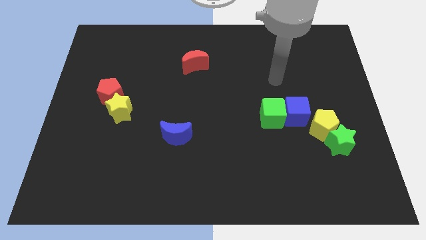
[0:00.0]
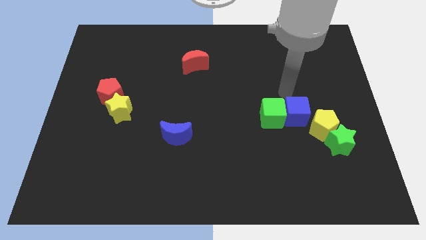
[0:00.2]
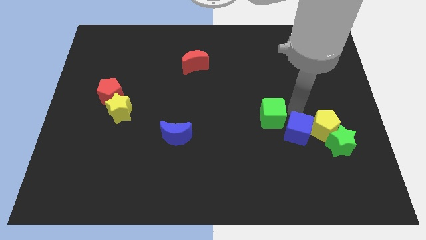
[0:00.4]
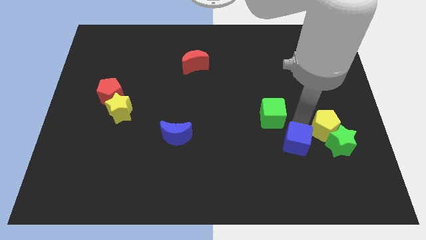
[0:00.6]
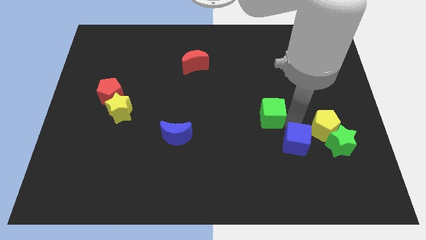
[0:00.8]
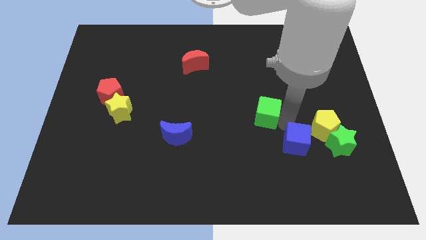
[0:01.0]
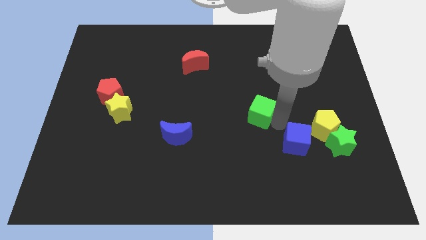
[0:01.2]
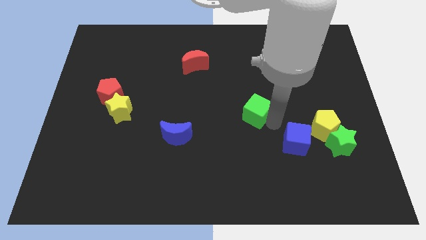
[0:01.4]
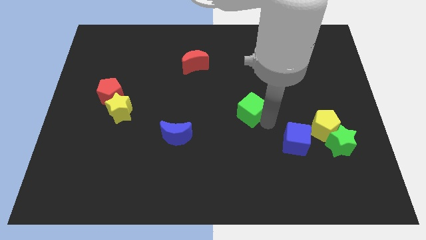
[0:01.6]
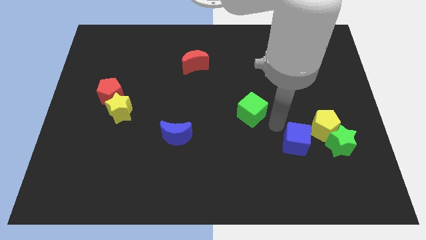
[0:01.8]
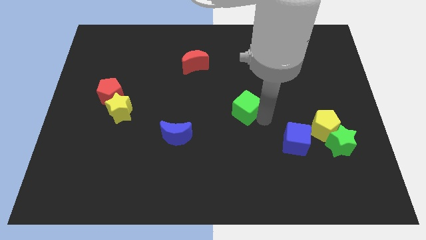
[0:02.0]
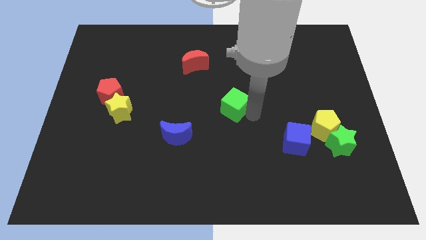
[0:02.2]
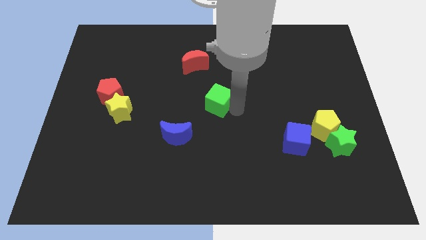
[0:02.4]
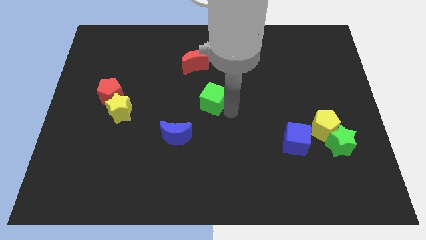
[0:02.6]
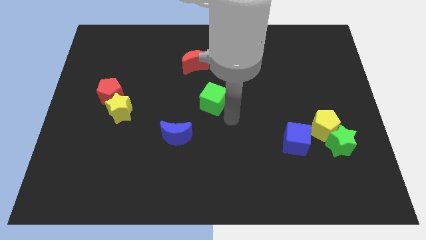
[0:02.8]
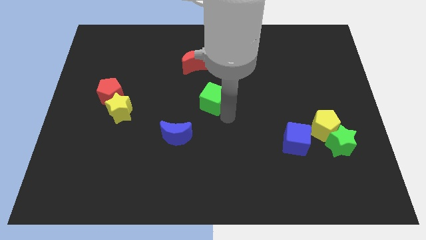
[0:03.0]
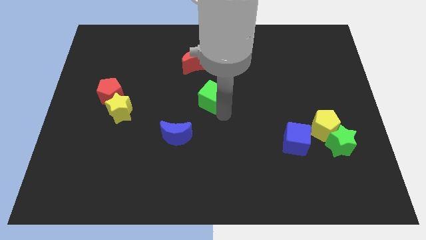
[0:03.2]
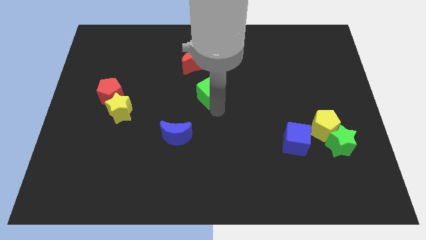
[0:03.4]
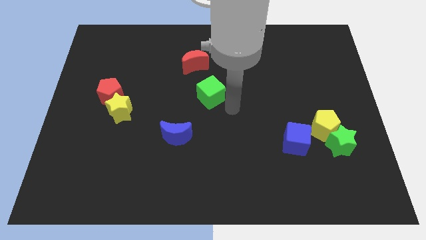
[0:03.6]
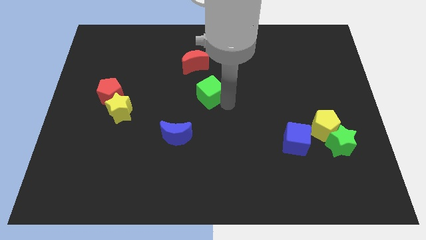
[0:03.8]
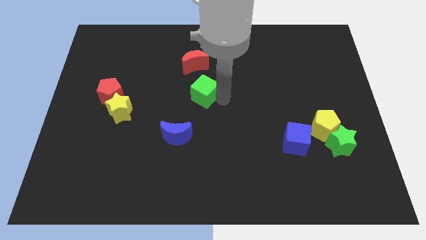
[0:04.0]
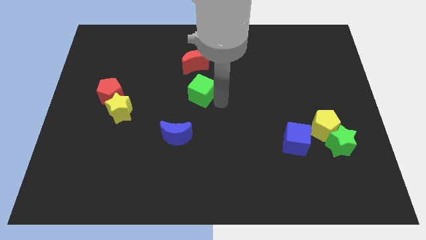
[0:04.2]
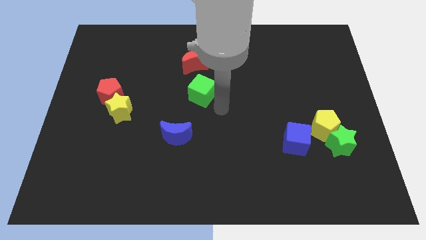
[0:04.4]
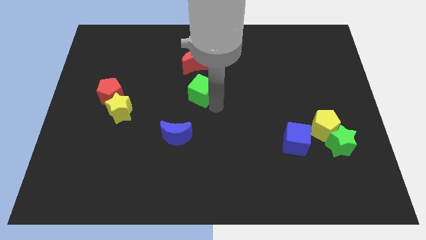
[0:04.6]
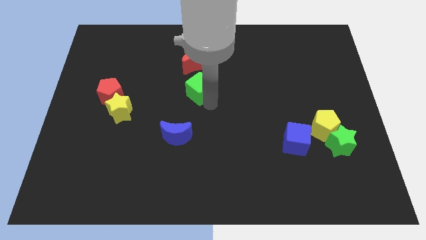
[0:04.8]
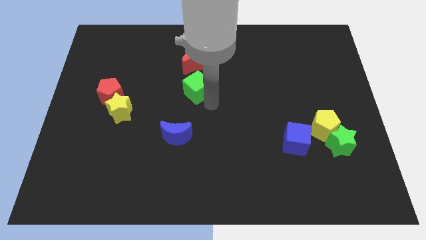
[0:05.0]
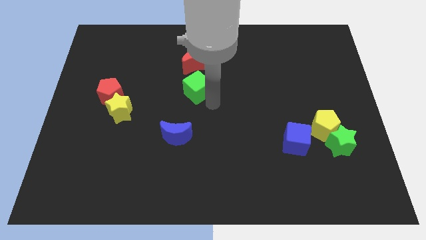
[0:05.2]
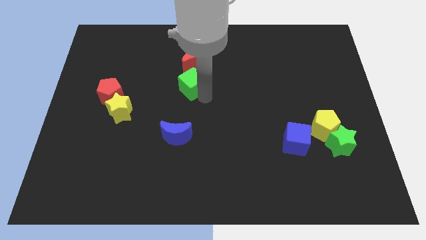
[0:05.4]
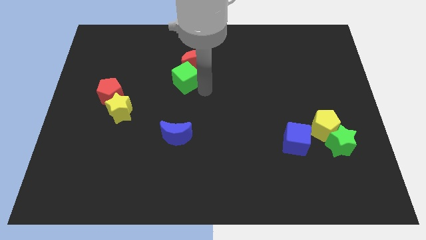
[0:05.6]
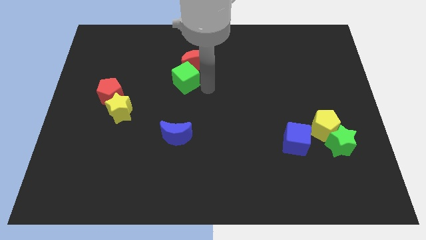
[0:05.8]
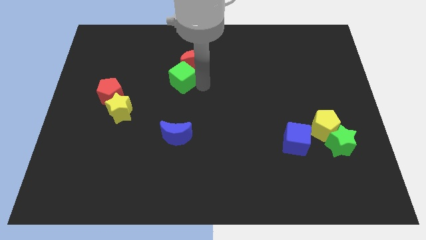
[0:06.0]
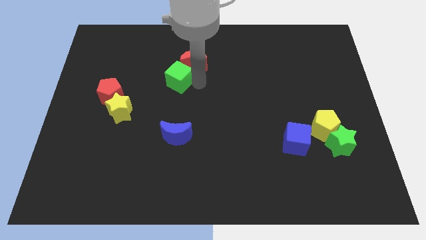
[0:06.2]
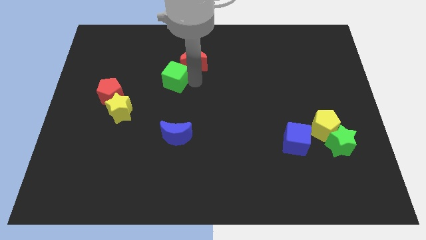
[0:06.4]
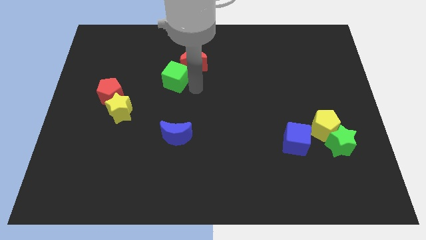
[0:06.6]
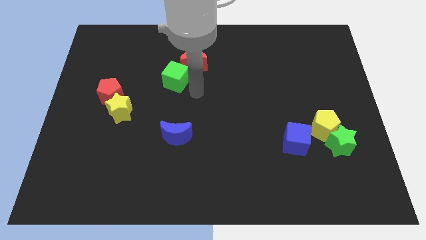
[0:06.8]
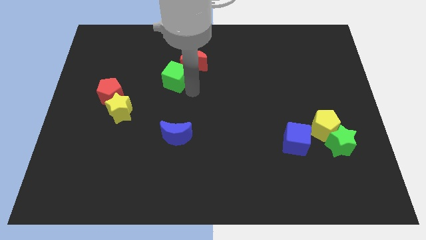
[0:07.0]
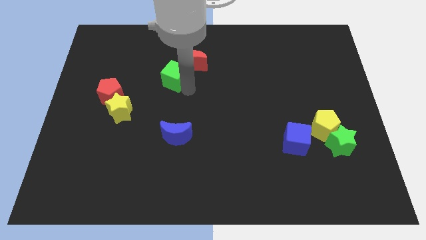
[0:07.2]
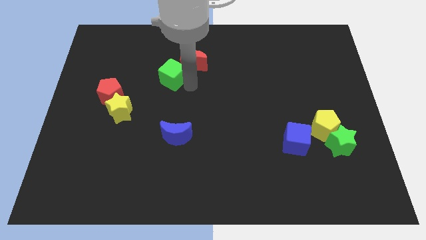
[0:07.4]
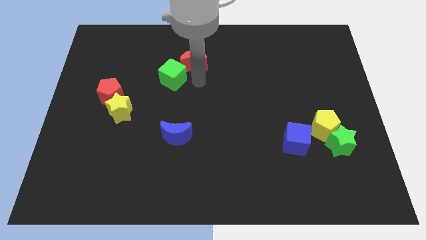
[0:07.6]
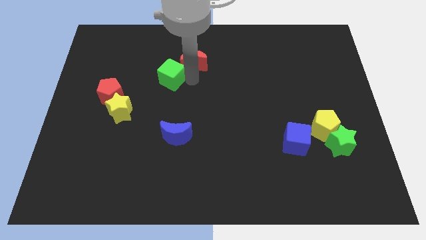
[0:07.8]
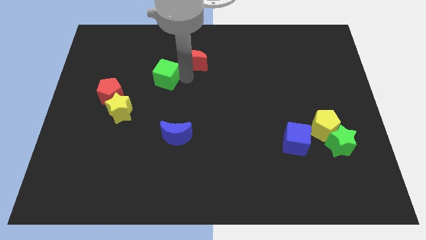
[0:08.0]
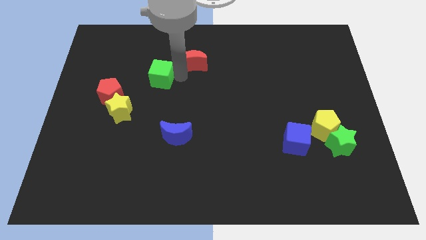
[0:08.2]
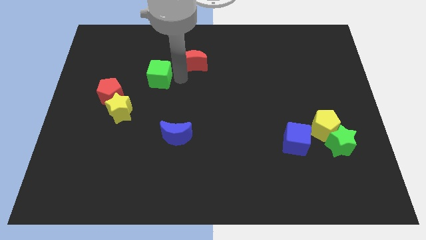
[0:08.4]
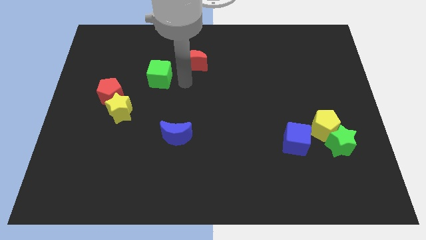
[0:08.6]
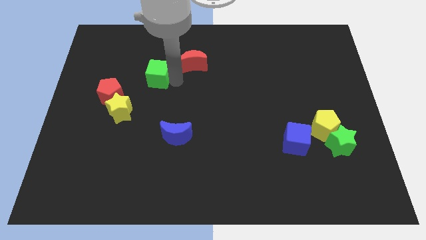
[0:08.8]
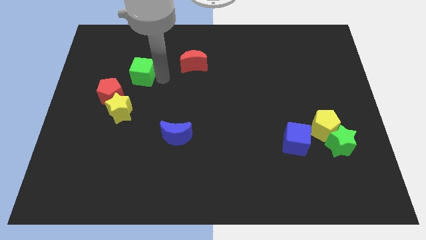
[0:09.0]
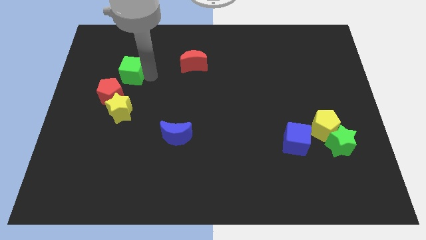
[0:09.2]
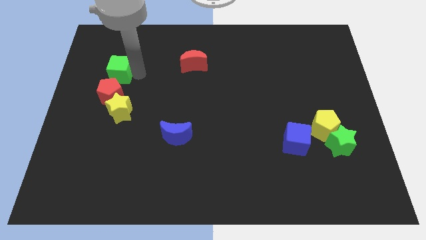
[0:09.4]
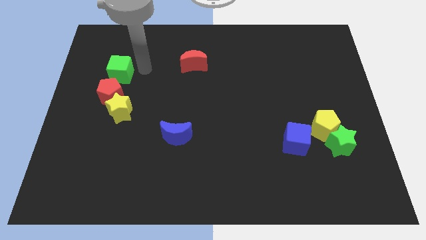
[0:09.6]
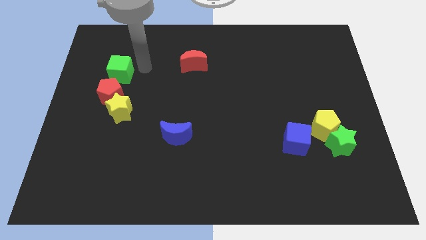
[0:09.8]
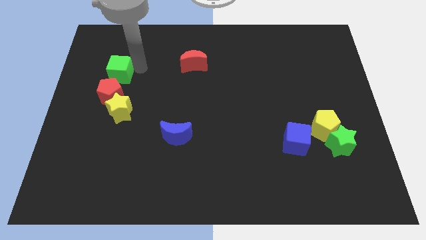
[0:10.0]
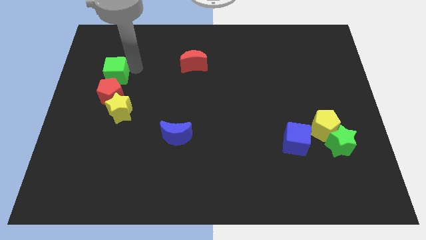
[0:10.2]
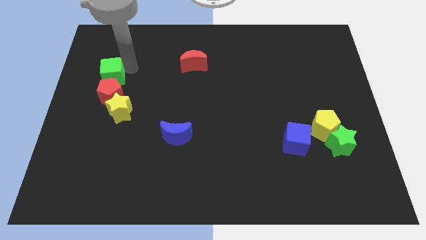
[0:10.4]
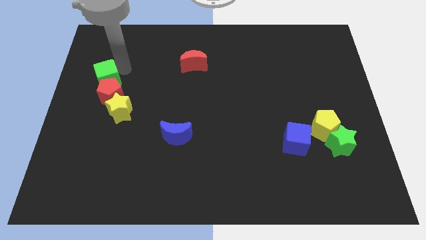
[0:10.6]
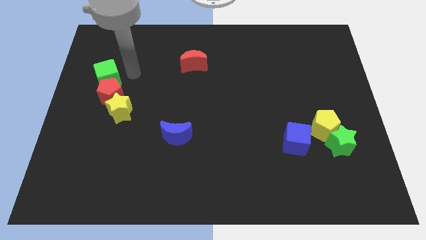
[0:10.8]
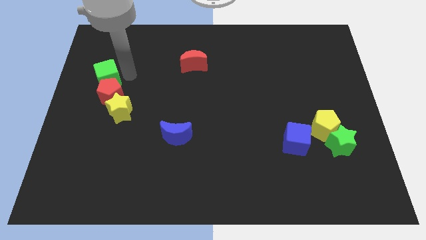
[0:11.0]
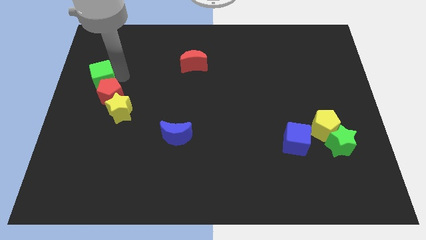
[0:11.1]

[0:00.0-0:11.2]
put the green cube to the center left

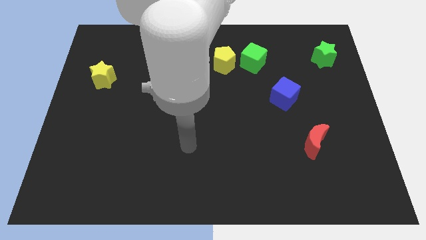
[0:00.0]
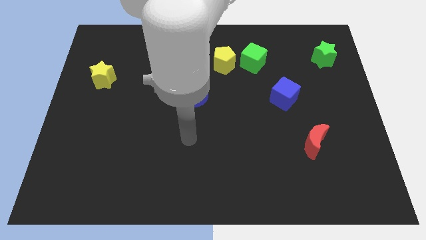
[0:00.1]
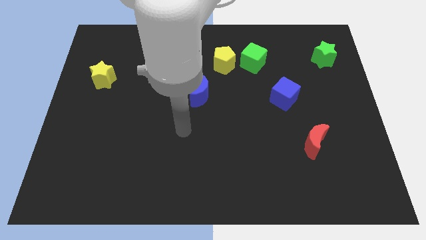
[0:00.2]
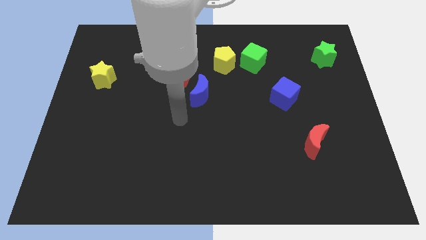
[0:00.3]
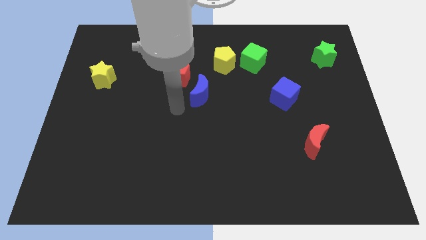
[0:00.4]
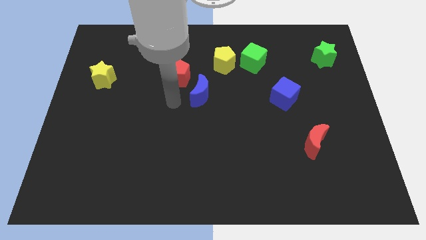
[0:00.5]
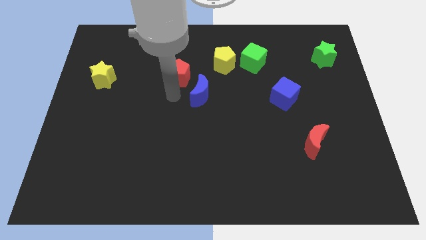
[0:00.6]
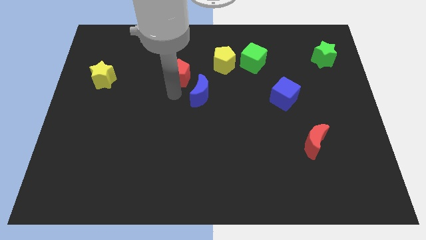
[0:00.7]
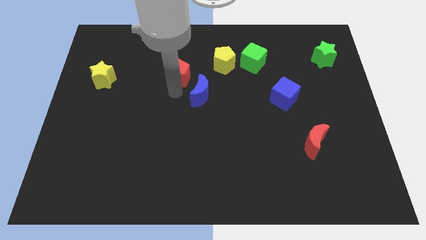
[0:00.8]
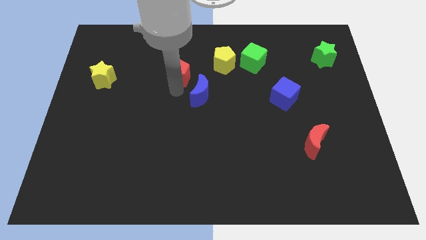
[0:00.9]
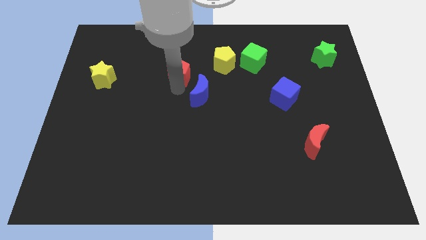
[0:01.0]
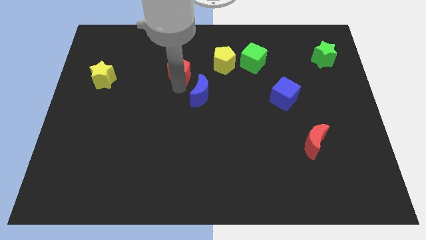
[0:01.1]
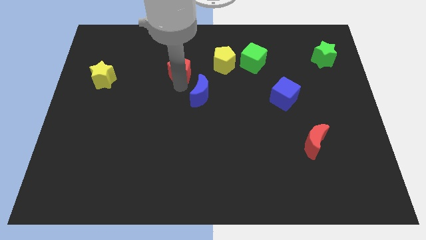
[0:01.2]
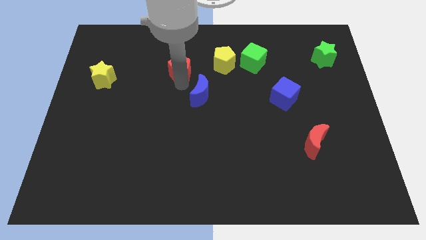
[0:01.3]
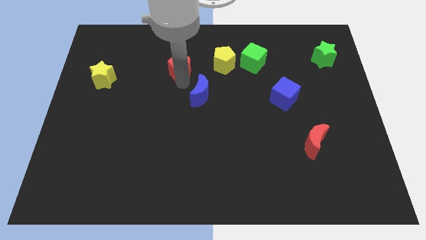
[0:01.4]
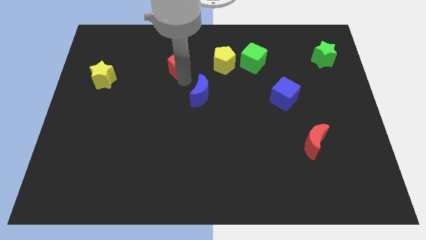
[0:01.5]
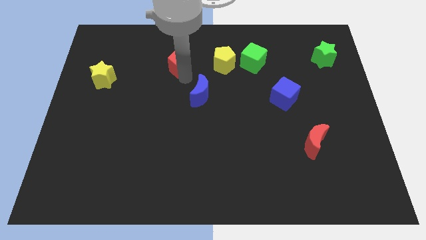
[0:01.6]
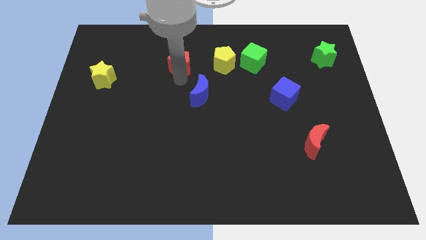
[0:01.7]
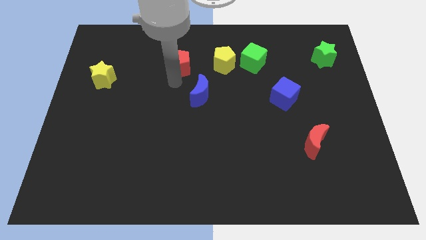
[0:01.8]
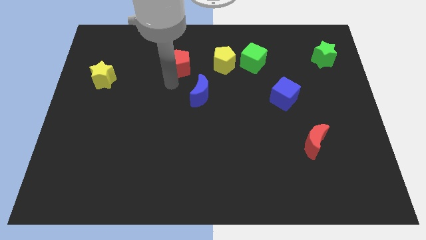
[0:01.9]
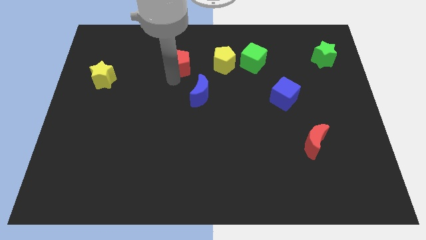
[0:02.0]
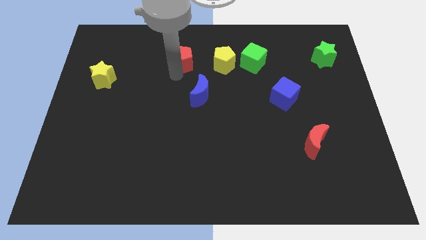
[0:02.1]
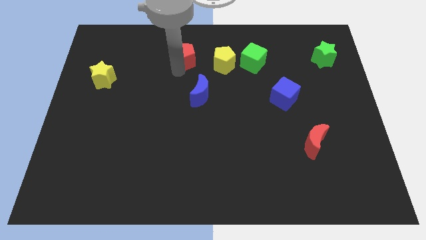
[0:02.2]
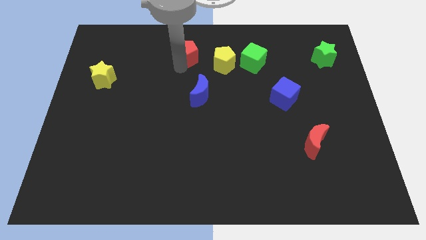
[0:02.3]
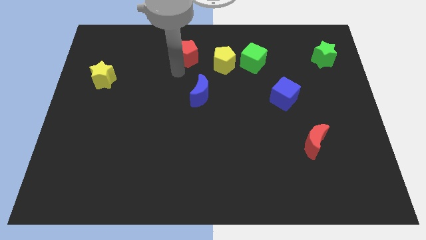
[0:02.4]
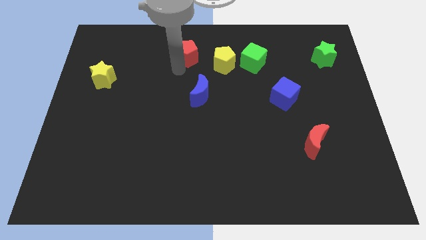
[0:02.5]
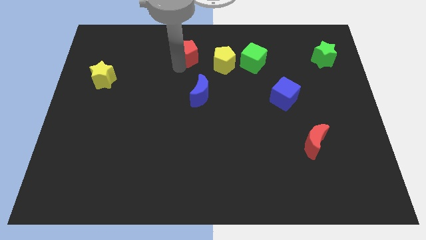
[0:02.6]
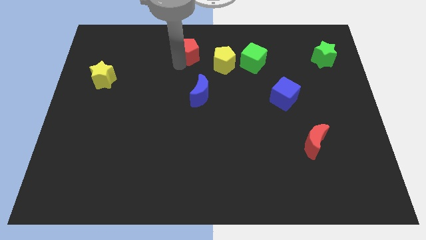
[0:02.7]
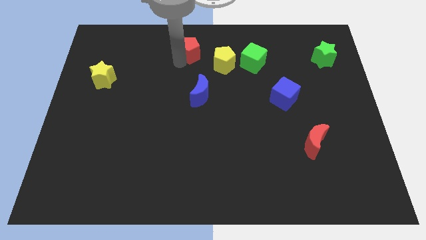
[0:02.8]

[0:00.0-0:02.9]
put the red pentagon to the top side
